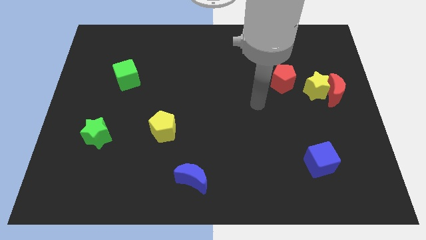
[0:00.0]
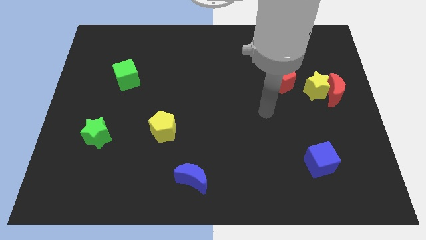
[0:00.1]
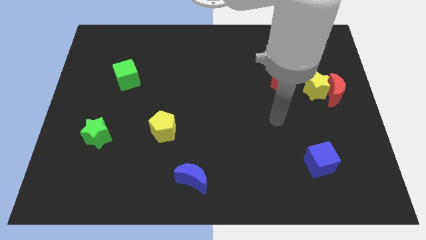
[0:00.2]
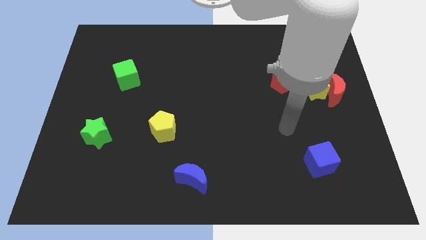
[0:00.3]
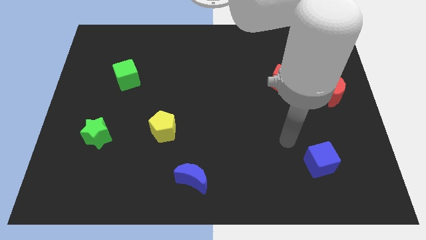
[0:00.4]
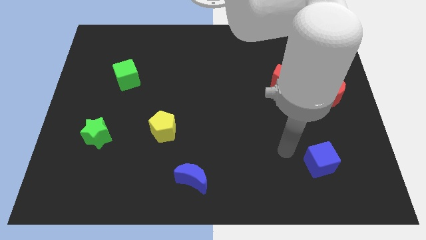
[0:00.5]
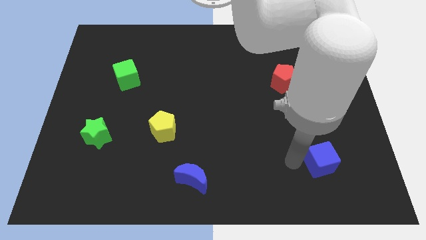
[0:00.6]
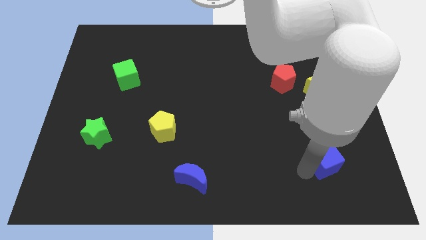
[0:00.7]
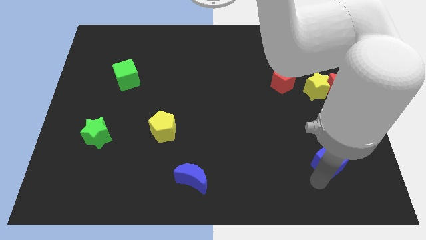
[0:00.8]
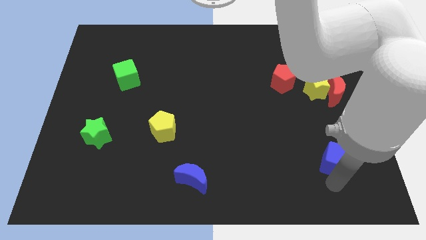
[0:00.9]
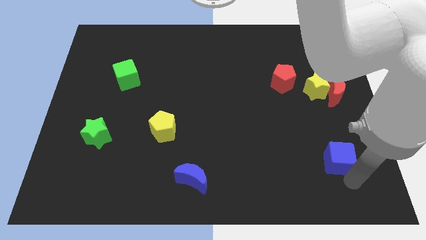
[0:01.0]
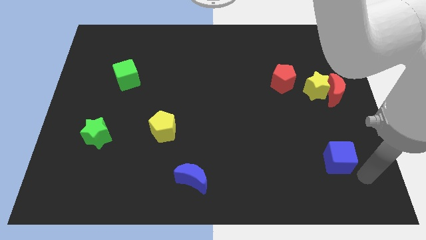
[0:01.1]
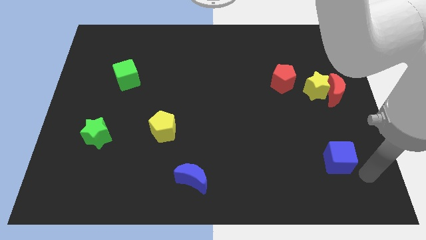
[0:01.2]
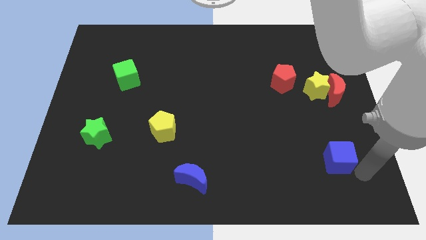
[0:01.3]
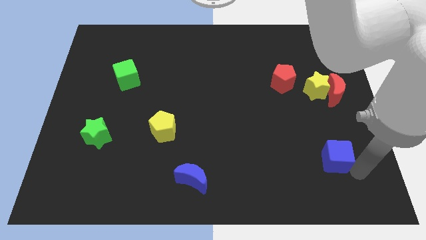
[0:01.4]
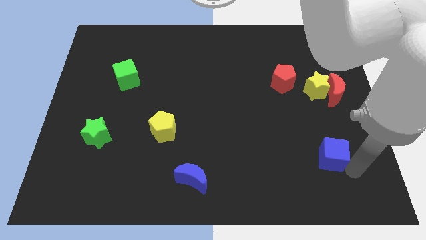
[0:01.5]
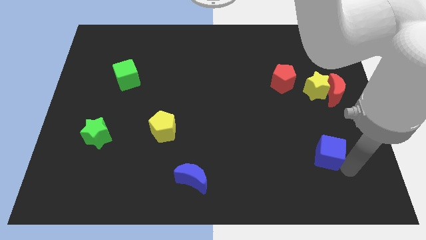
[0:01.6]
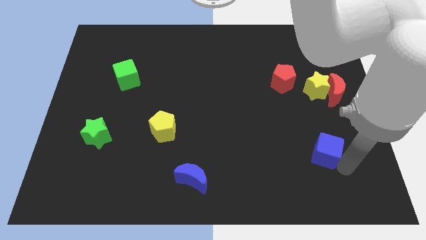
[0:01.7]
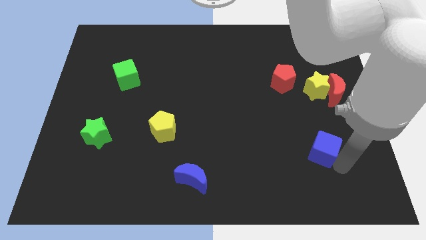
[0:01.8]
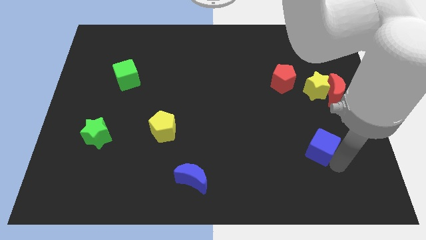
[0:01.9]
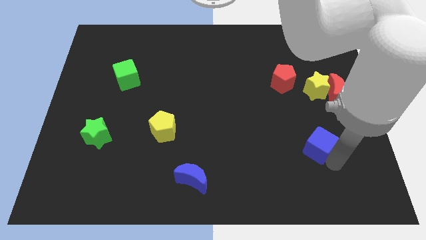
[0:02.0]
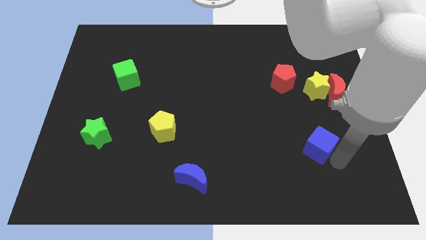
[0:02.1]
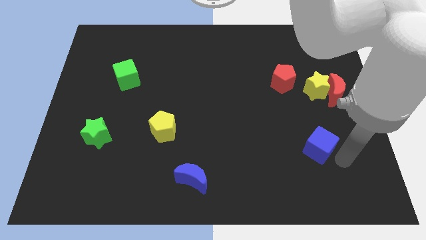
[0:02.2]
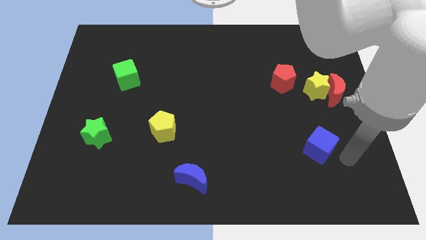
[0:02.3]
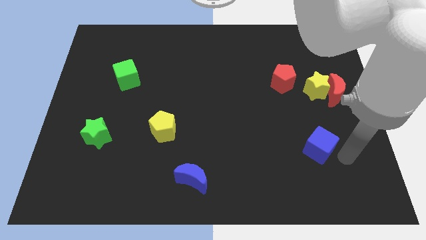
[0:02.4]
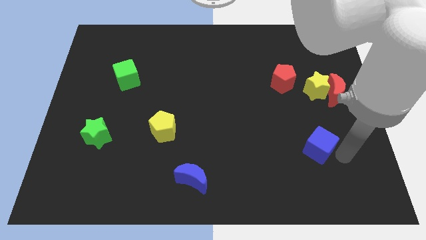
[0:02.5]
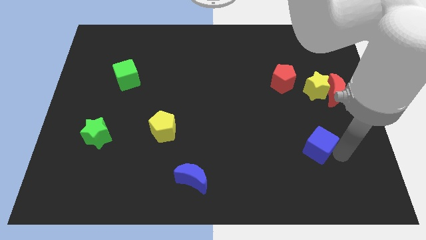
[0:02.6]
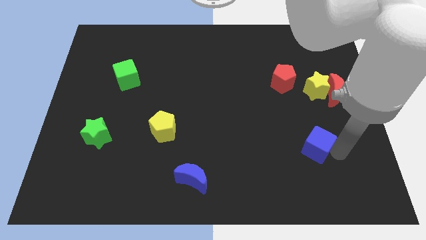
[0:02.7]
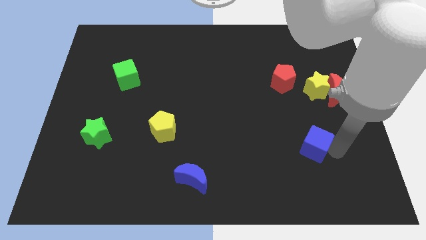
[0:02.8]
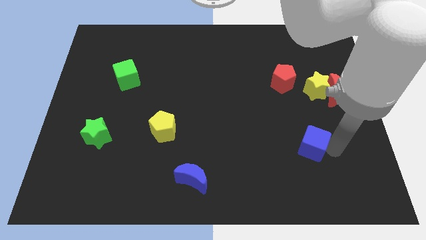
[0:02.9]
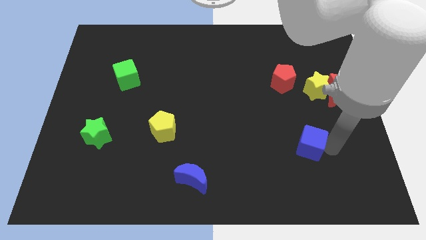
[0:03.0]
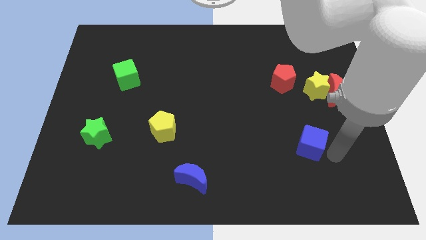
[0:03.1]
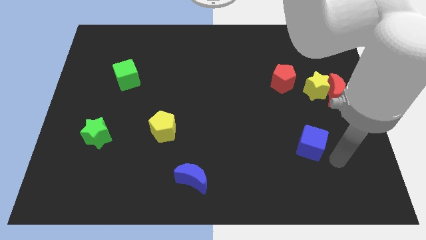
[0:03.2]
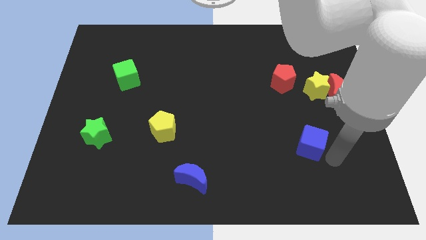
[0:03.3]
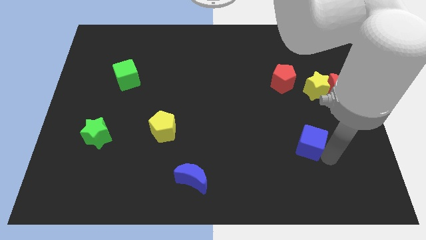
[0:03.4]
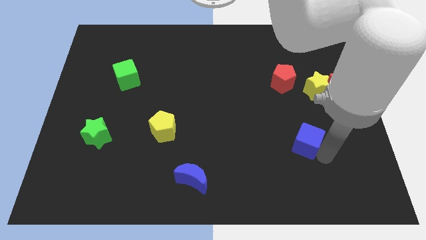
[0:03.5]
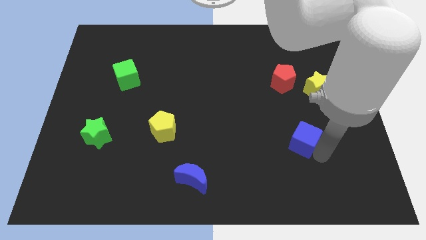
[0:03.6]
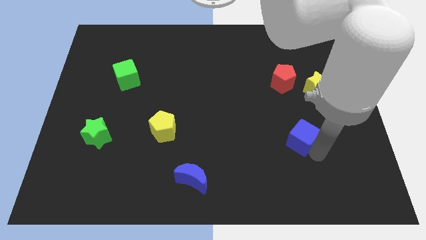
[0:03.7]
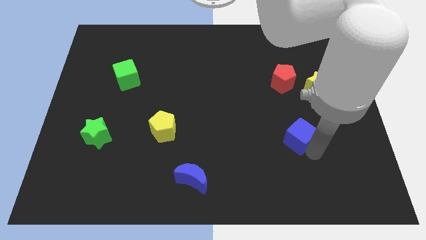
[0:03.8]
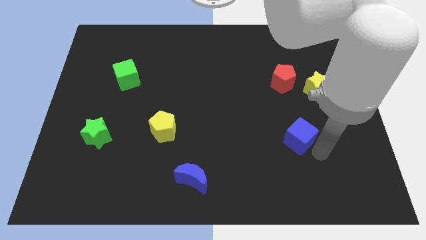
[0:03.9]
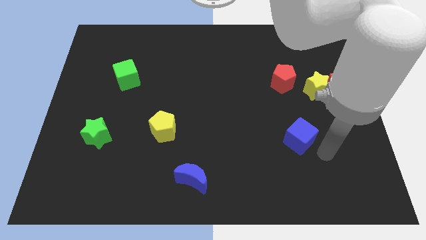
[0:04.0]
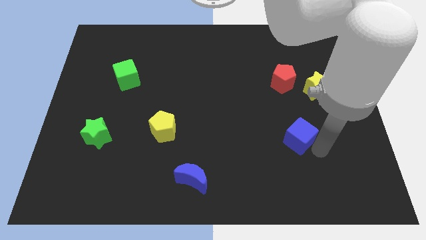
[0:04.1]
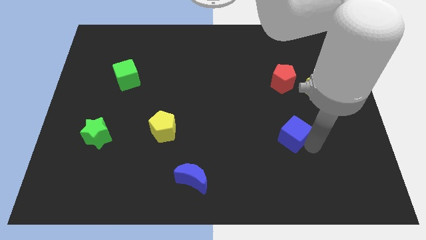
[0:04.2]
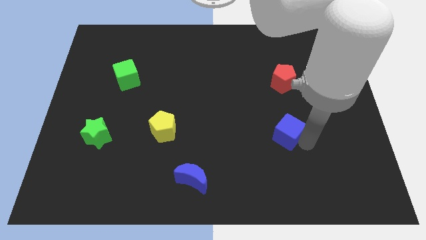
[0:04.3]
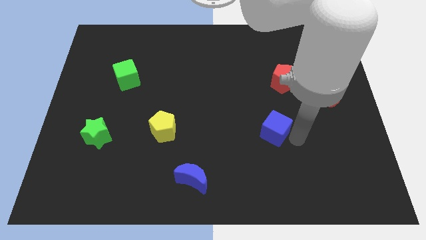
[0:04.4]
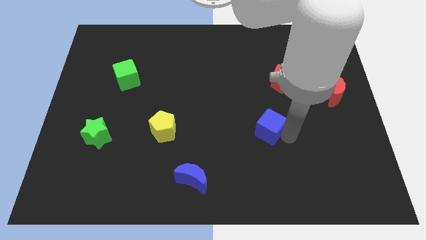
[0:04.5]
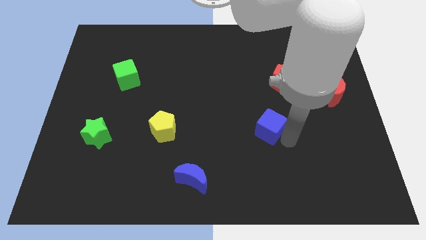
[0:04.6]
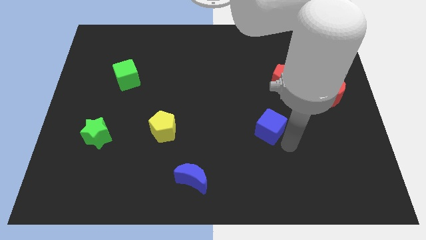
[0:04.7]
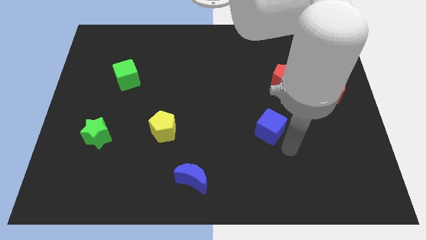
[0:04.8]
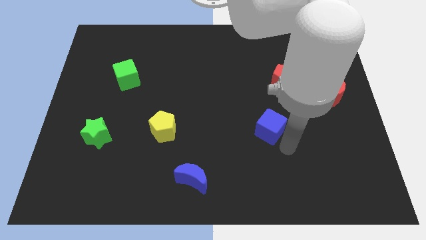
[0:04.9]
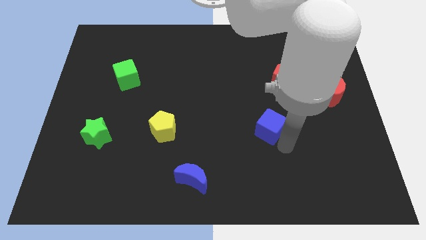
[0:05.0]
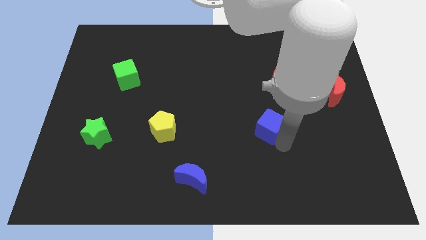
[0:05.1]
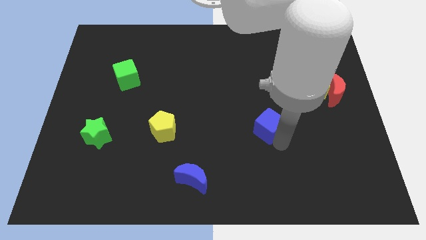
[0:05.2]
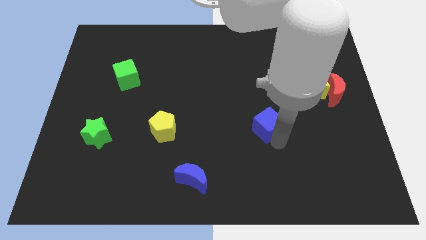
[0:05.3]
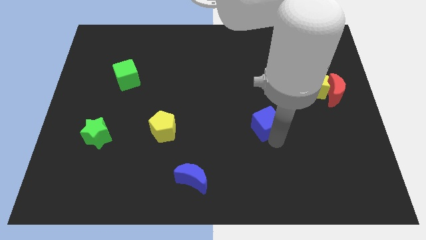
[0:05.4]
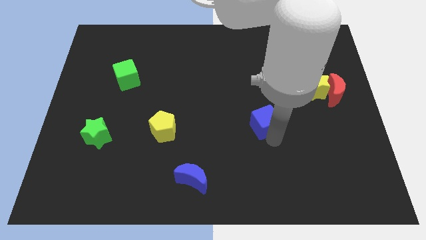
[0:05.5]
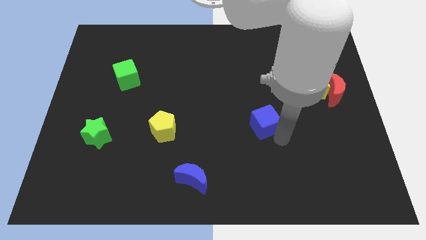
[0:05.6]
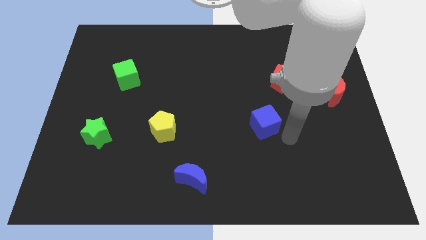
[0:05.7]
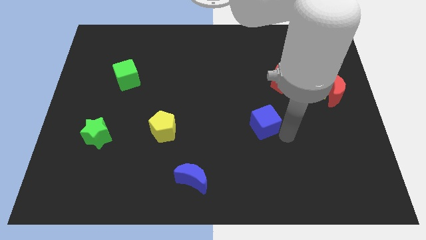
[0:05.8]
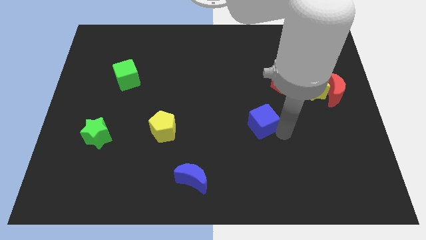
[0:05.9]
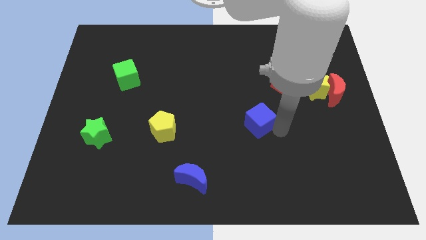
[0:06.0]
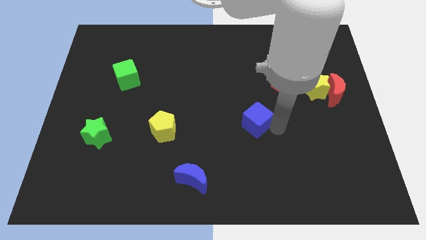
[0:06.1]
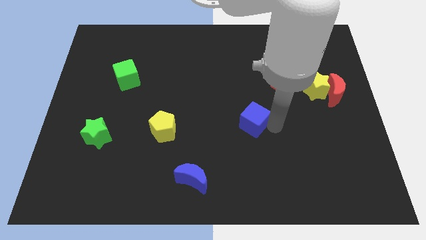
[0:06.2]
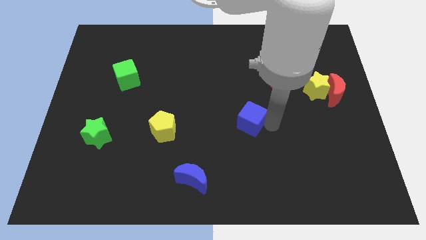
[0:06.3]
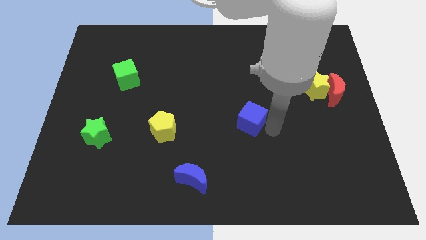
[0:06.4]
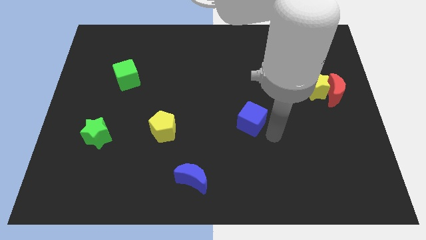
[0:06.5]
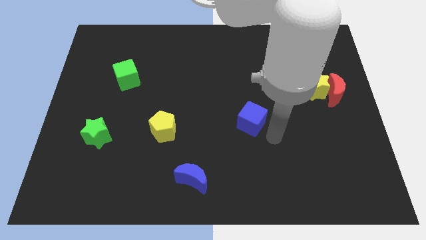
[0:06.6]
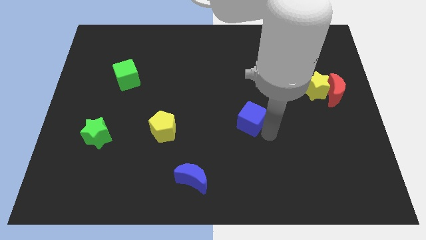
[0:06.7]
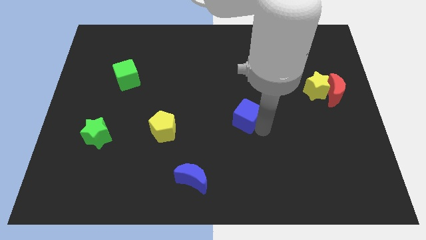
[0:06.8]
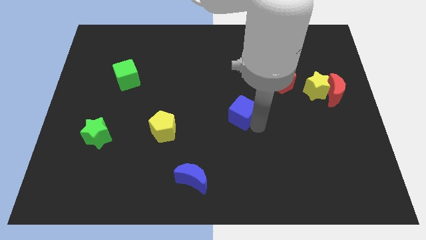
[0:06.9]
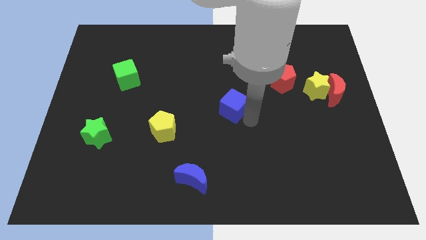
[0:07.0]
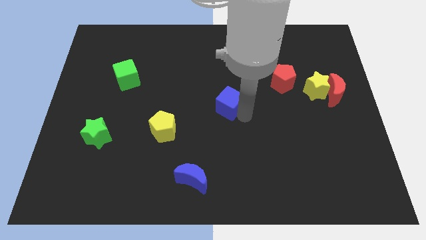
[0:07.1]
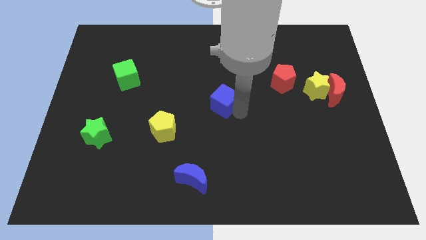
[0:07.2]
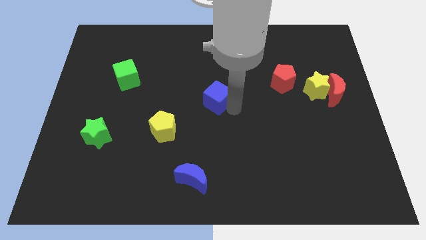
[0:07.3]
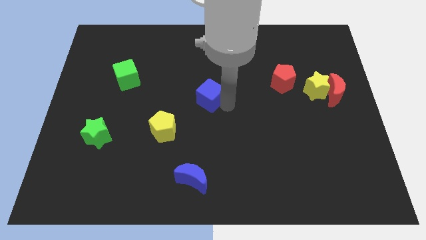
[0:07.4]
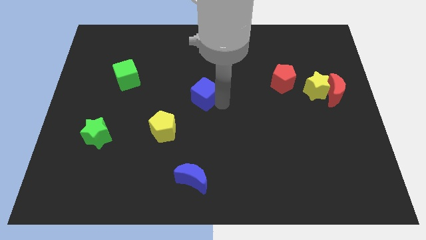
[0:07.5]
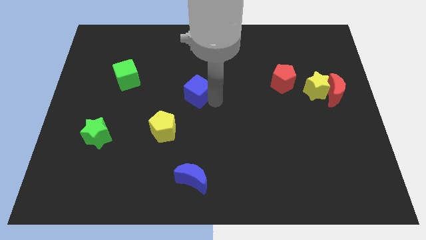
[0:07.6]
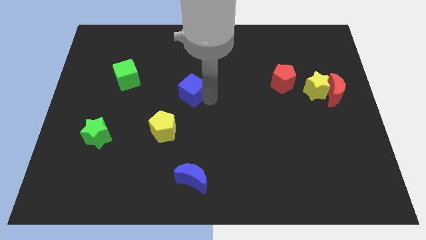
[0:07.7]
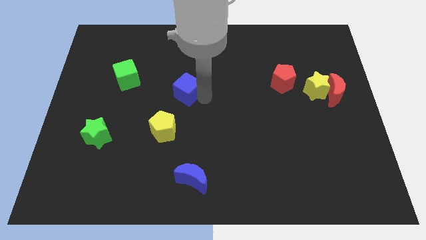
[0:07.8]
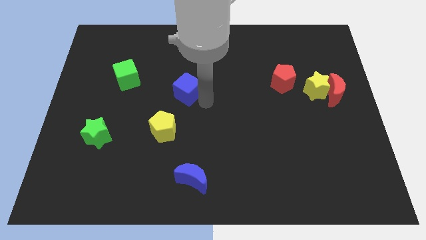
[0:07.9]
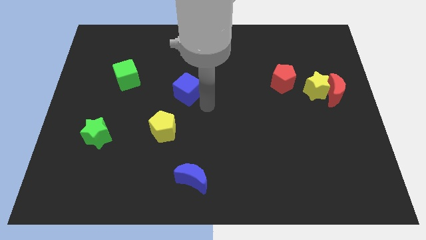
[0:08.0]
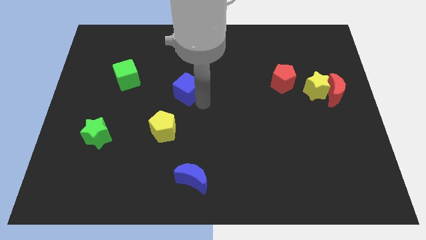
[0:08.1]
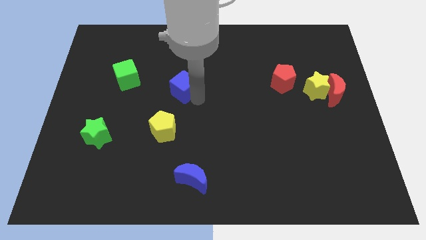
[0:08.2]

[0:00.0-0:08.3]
slide the blue cube to the right of the green cube
